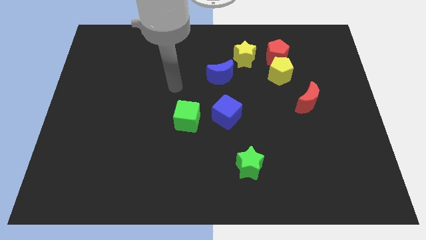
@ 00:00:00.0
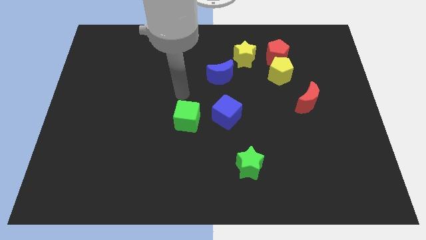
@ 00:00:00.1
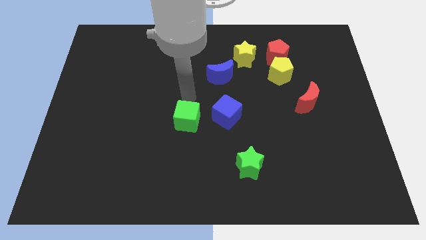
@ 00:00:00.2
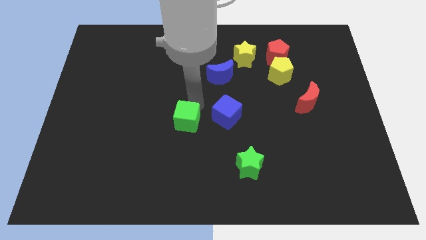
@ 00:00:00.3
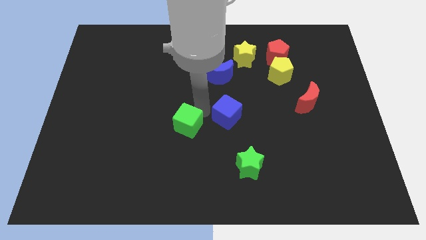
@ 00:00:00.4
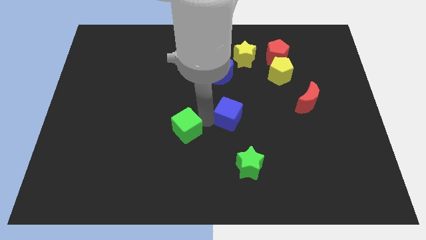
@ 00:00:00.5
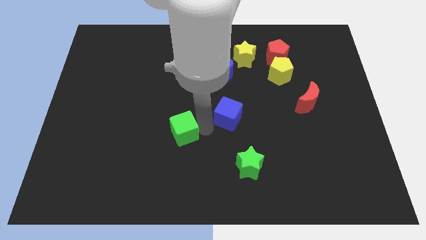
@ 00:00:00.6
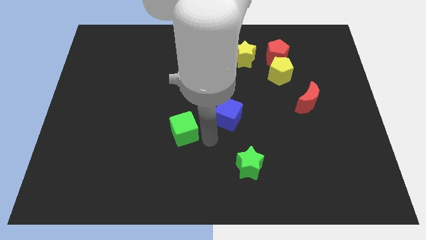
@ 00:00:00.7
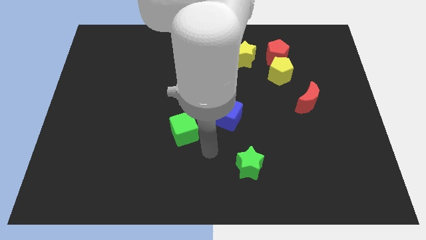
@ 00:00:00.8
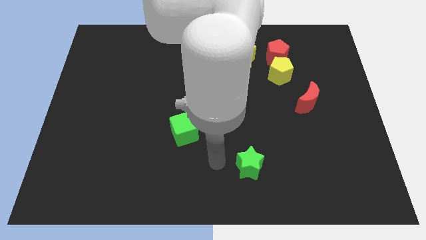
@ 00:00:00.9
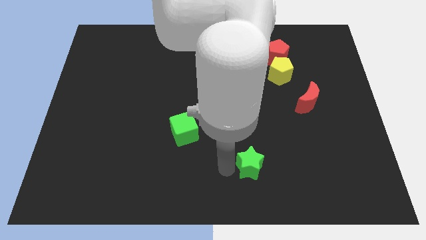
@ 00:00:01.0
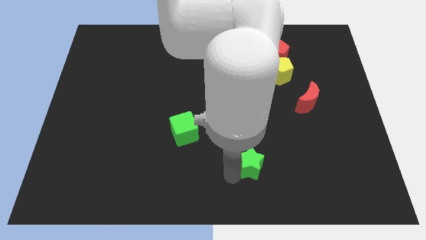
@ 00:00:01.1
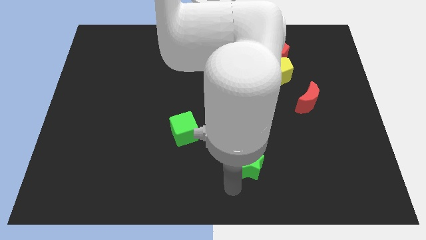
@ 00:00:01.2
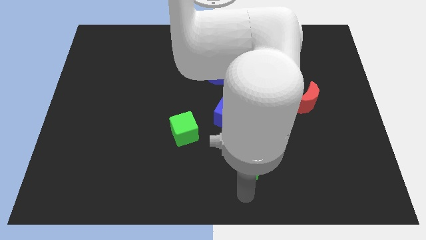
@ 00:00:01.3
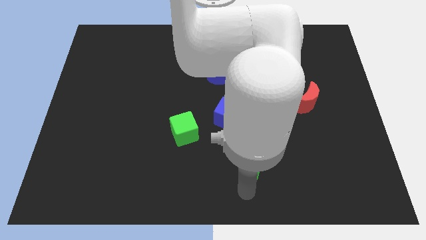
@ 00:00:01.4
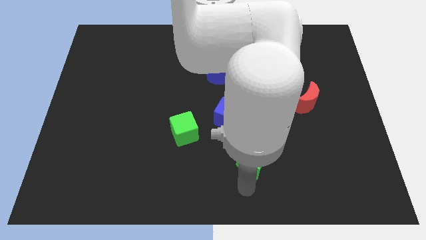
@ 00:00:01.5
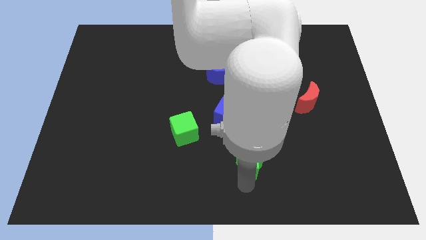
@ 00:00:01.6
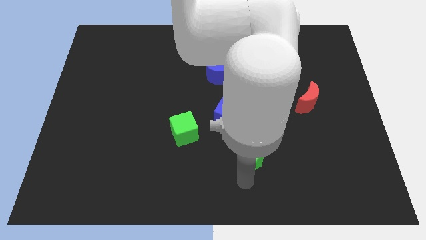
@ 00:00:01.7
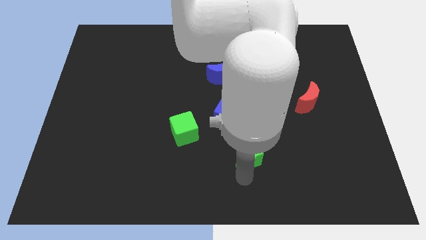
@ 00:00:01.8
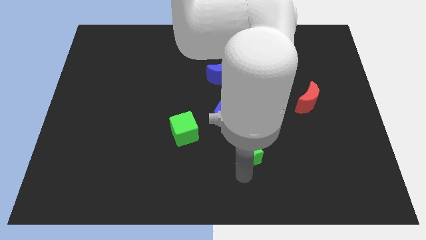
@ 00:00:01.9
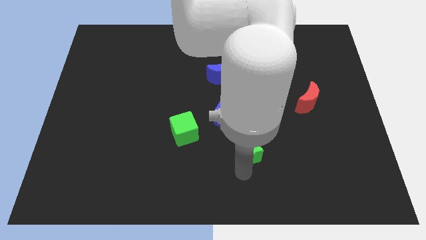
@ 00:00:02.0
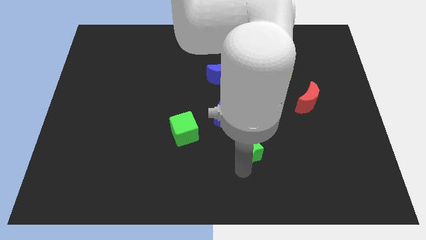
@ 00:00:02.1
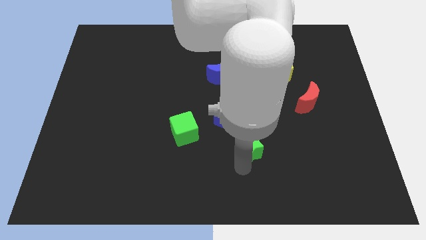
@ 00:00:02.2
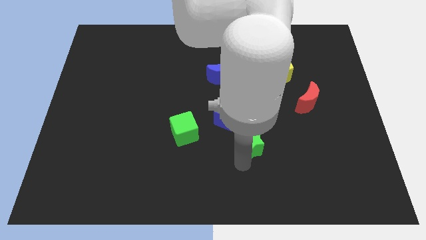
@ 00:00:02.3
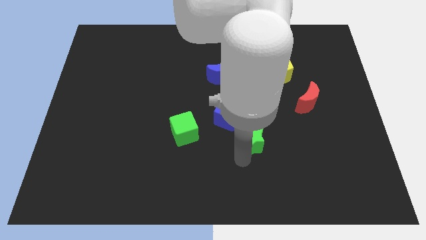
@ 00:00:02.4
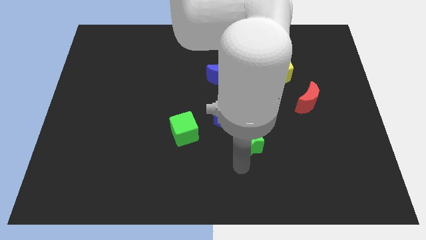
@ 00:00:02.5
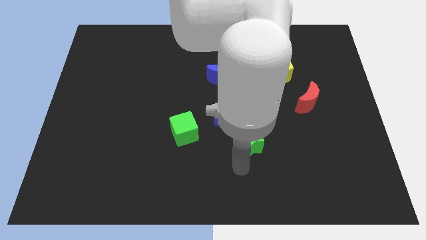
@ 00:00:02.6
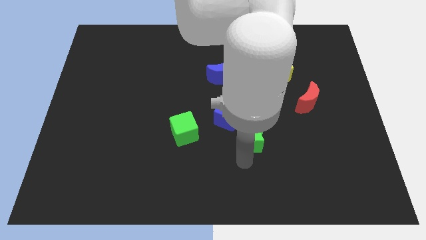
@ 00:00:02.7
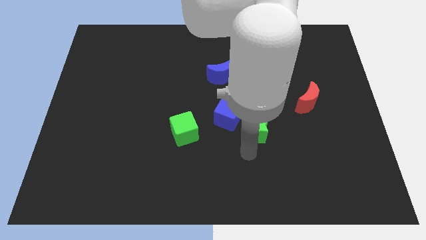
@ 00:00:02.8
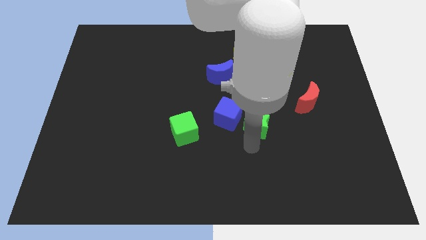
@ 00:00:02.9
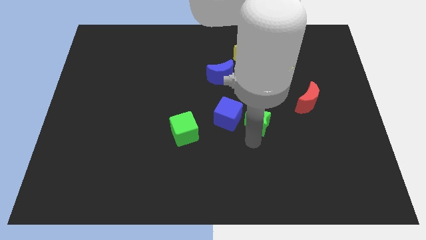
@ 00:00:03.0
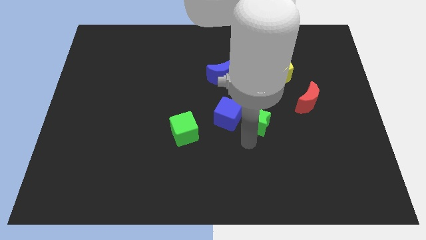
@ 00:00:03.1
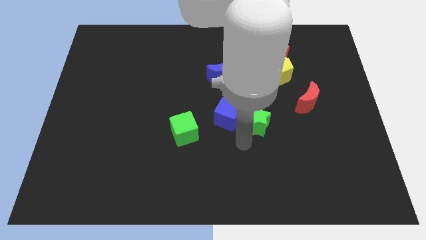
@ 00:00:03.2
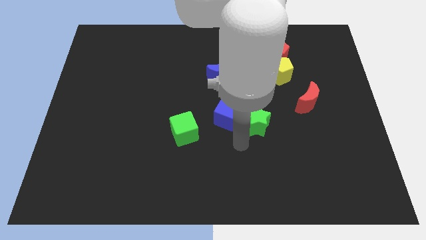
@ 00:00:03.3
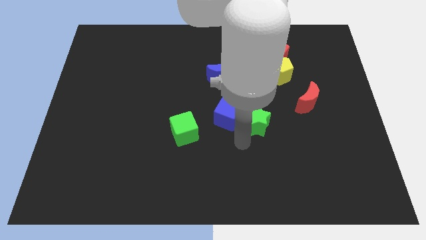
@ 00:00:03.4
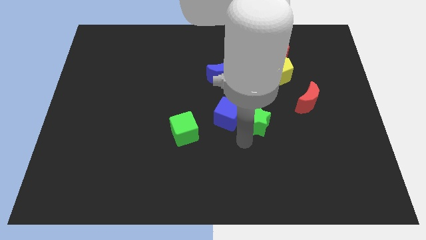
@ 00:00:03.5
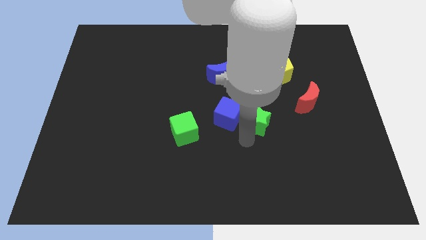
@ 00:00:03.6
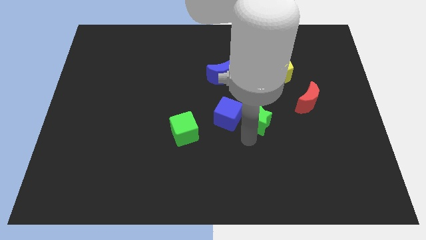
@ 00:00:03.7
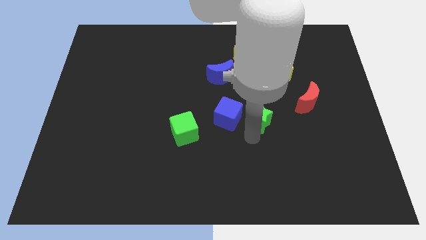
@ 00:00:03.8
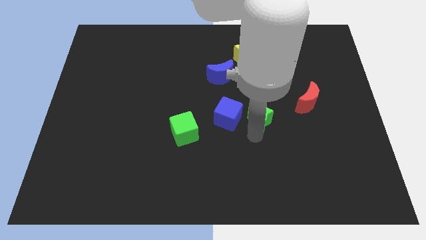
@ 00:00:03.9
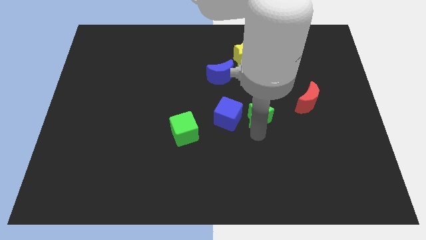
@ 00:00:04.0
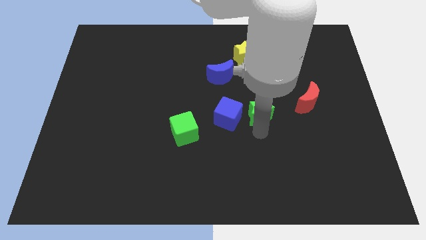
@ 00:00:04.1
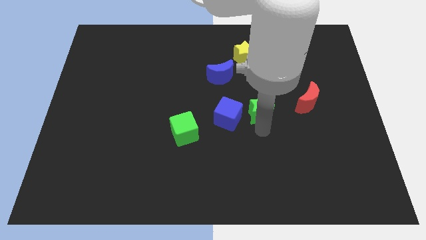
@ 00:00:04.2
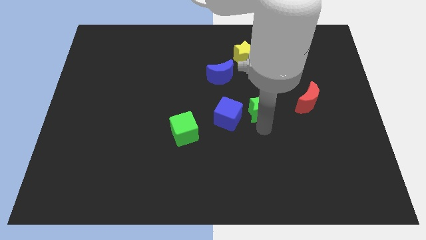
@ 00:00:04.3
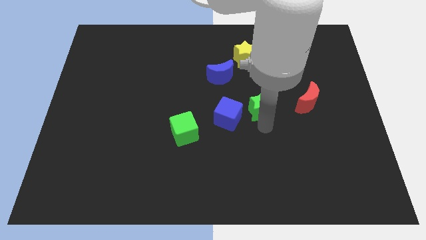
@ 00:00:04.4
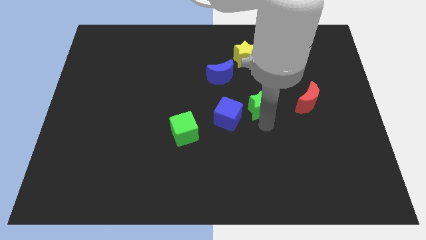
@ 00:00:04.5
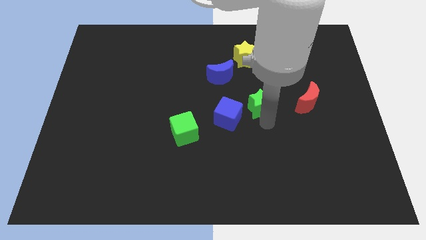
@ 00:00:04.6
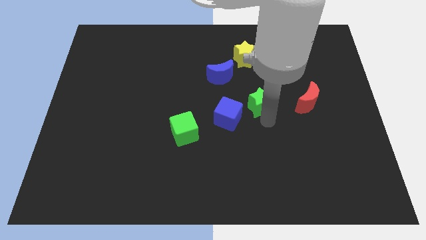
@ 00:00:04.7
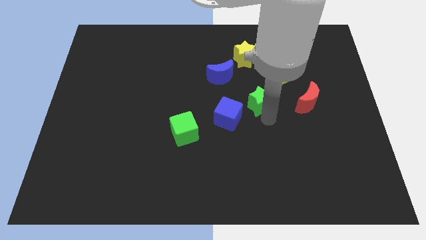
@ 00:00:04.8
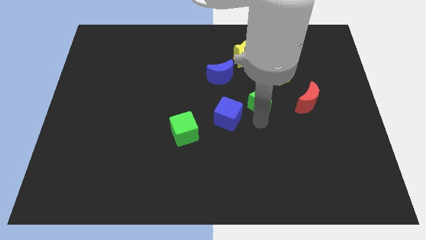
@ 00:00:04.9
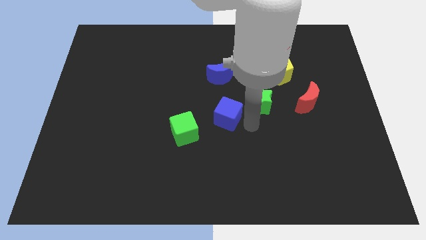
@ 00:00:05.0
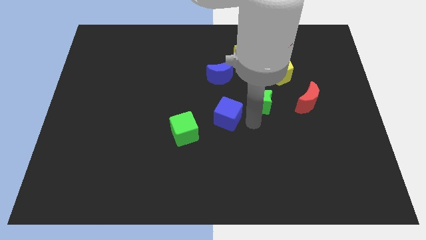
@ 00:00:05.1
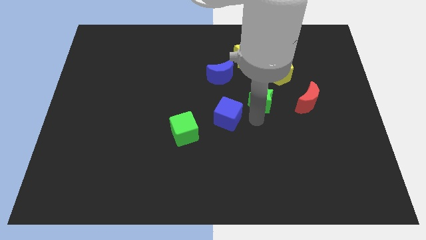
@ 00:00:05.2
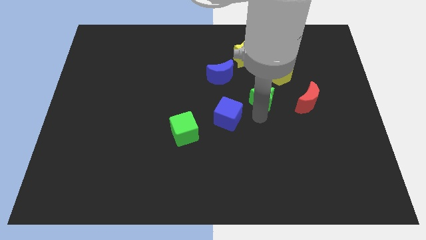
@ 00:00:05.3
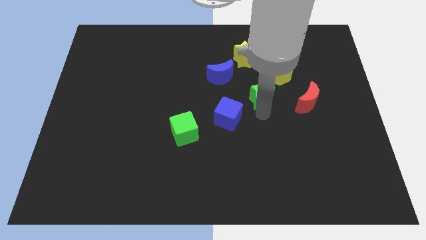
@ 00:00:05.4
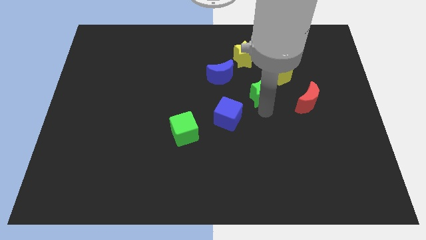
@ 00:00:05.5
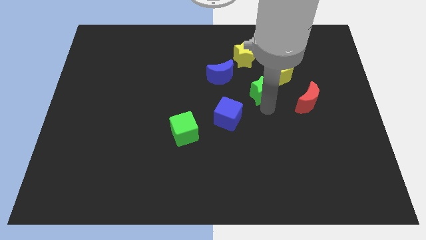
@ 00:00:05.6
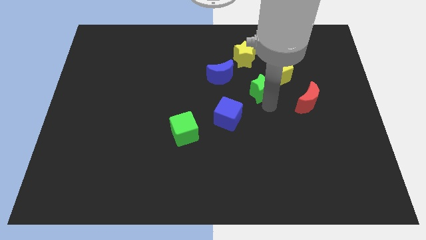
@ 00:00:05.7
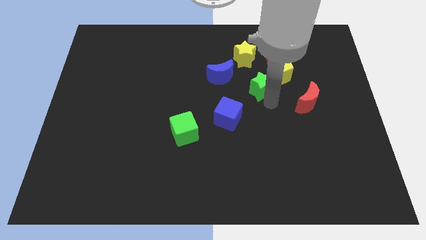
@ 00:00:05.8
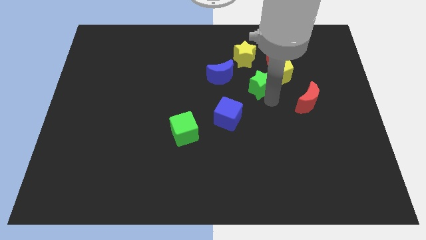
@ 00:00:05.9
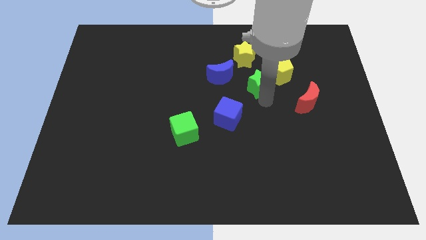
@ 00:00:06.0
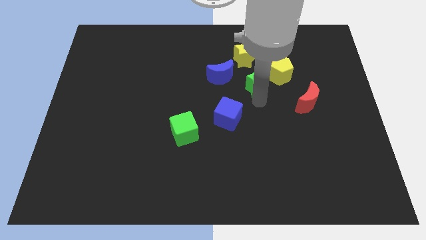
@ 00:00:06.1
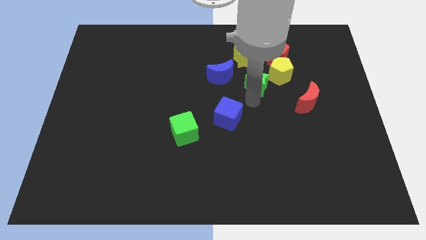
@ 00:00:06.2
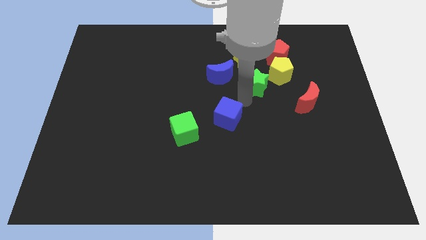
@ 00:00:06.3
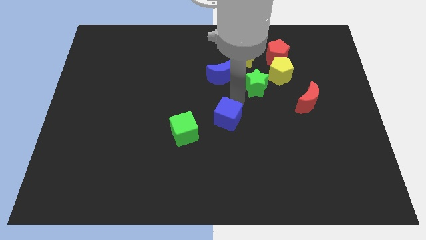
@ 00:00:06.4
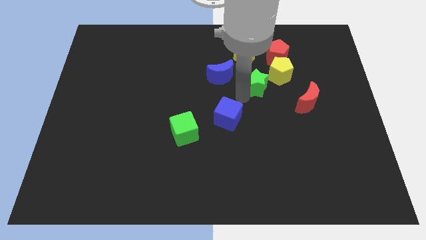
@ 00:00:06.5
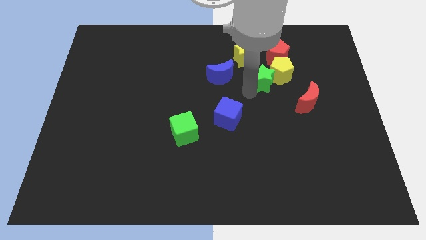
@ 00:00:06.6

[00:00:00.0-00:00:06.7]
push the green star towards the yellow pentagon

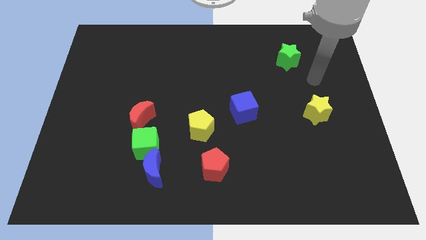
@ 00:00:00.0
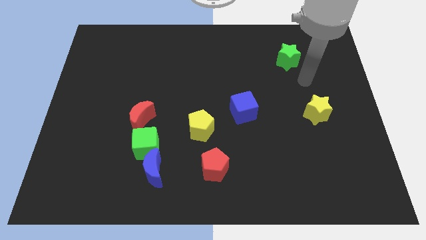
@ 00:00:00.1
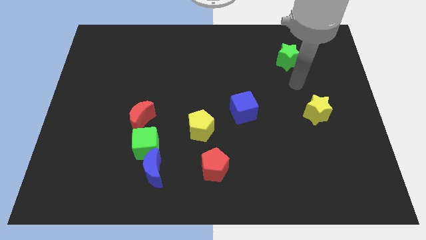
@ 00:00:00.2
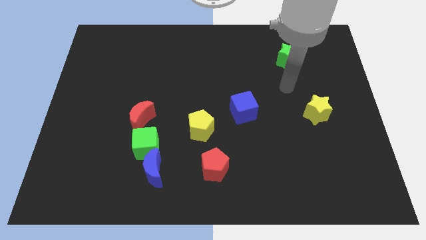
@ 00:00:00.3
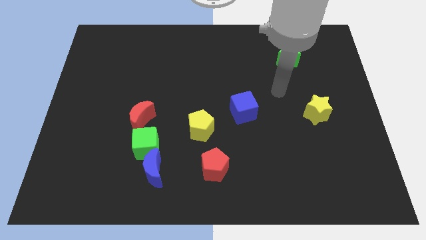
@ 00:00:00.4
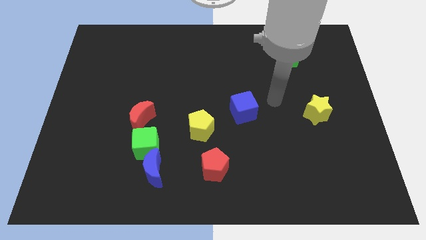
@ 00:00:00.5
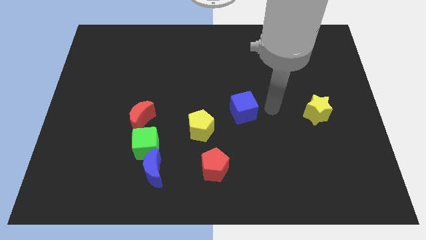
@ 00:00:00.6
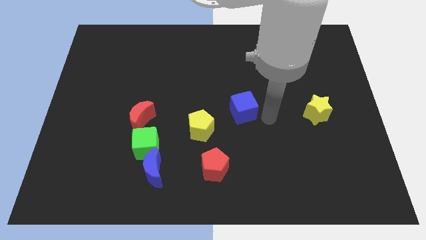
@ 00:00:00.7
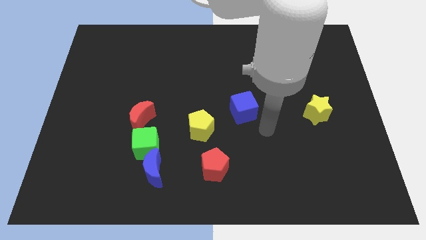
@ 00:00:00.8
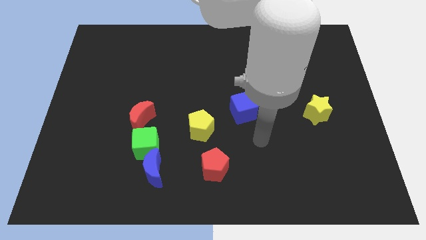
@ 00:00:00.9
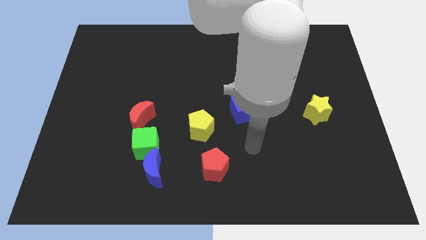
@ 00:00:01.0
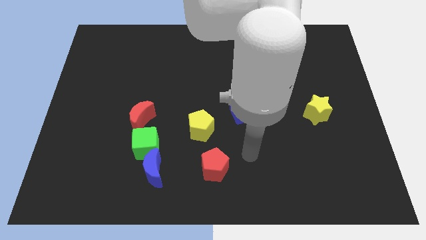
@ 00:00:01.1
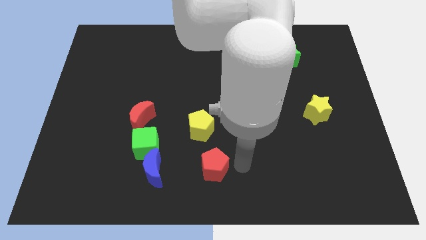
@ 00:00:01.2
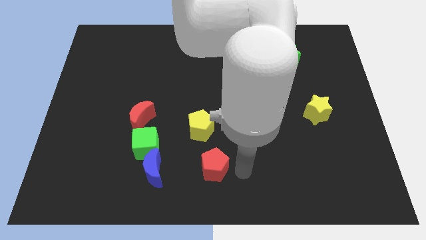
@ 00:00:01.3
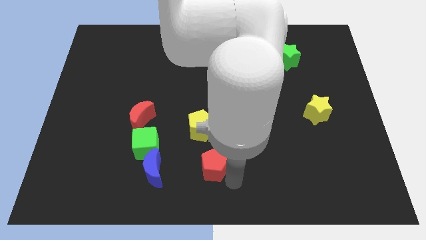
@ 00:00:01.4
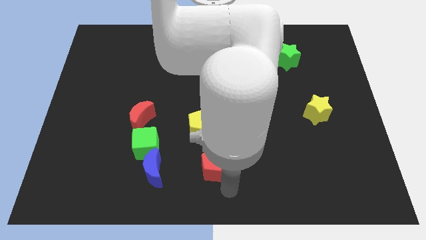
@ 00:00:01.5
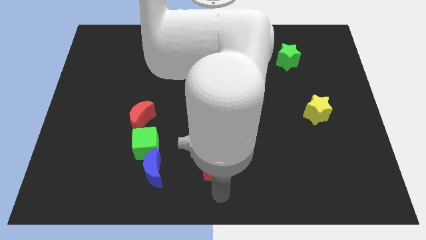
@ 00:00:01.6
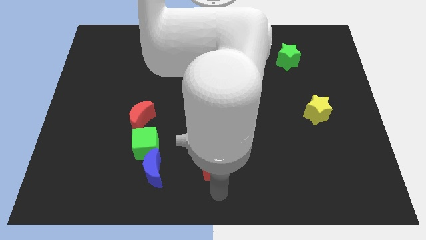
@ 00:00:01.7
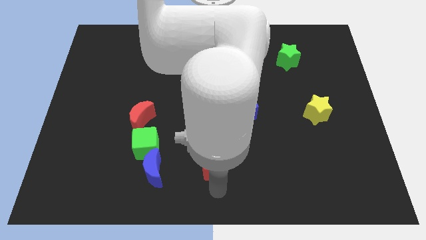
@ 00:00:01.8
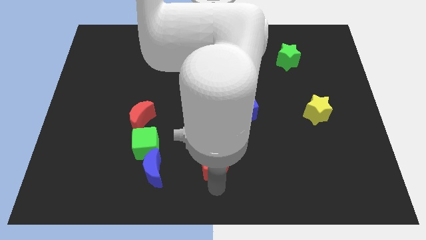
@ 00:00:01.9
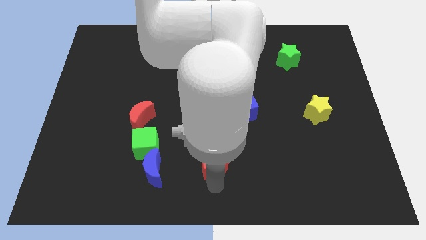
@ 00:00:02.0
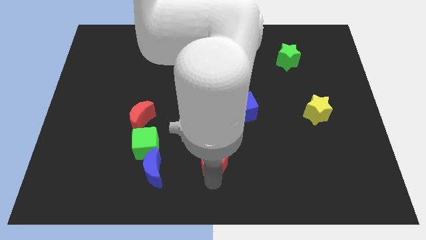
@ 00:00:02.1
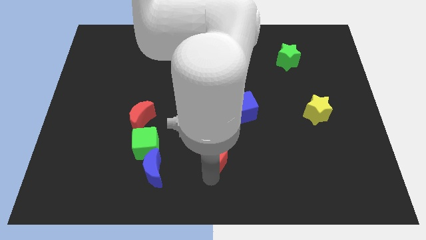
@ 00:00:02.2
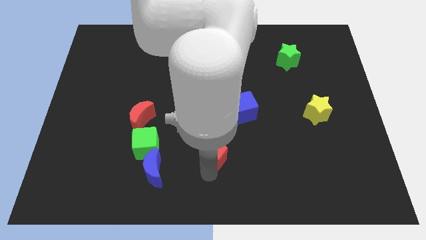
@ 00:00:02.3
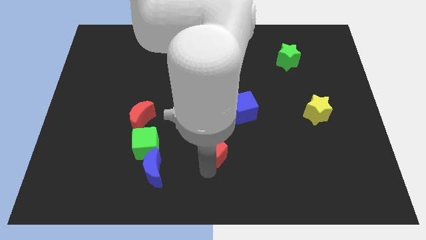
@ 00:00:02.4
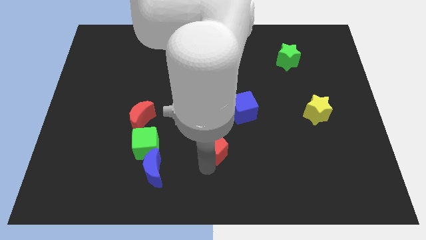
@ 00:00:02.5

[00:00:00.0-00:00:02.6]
move the red pentagon next to the yellow pentagon
